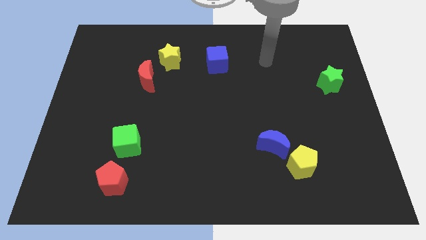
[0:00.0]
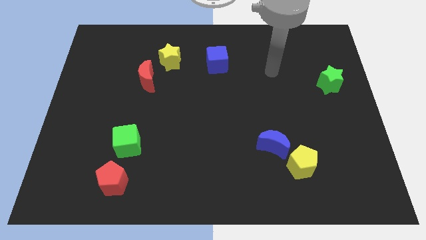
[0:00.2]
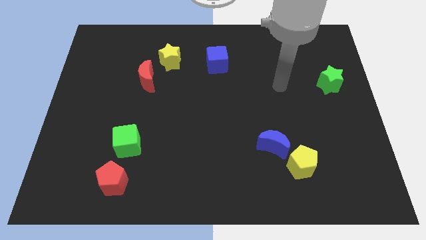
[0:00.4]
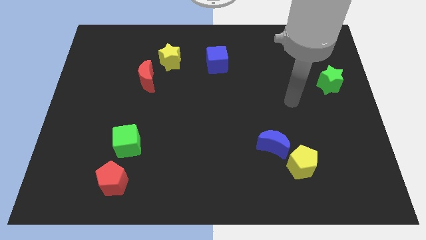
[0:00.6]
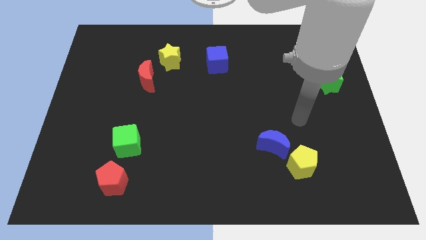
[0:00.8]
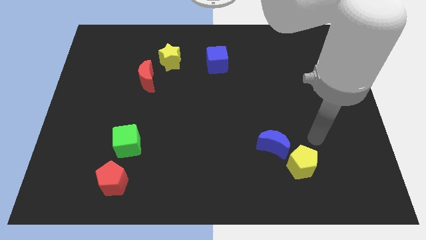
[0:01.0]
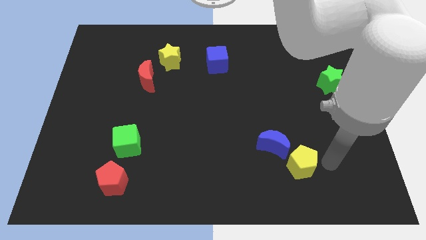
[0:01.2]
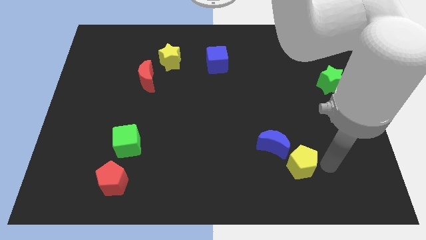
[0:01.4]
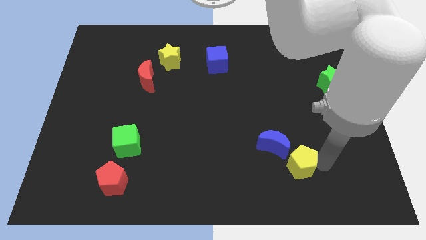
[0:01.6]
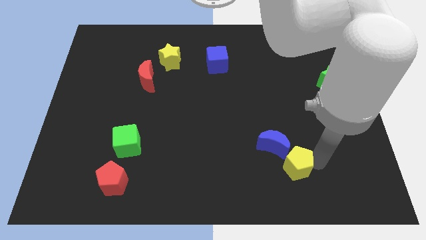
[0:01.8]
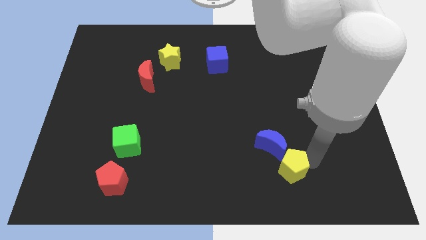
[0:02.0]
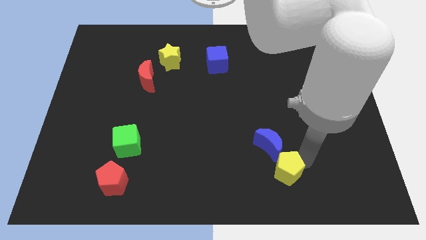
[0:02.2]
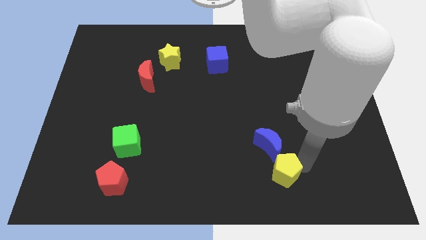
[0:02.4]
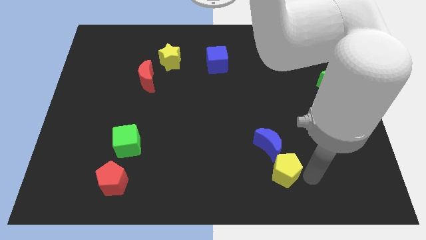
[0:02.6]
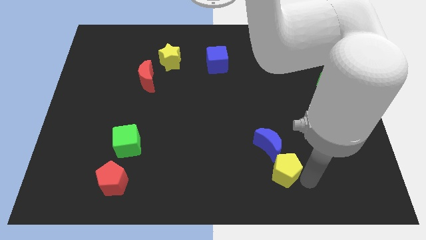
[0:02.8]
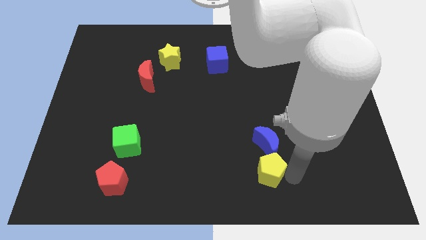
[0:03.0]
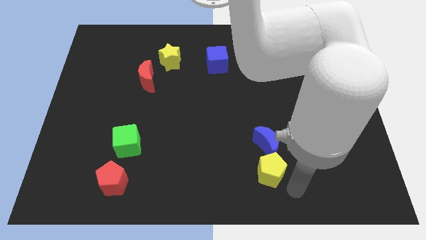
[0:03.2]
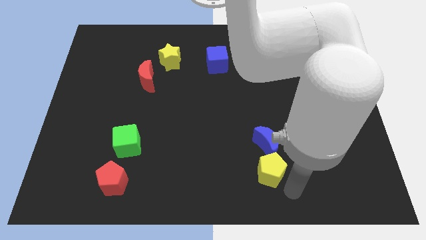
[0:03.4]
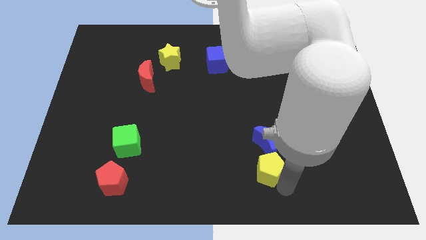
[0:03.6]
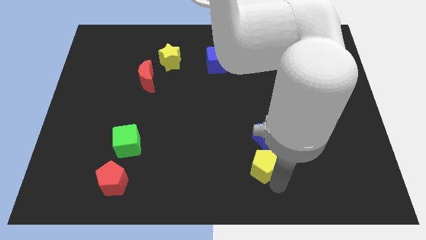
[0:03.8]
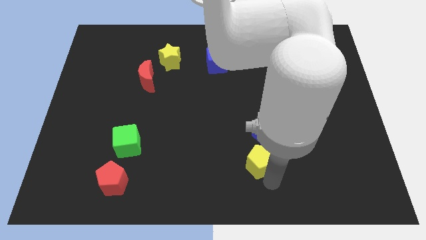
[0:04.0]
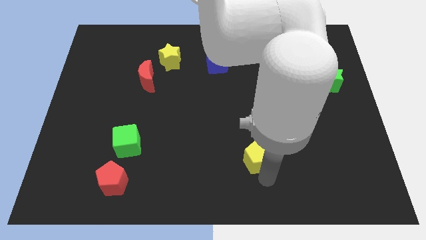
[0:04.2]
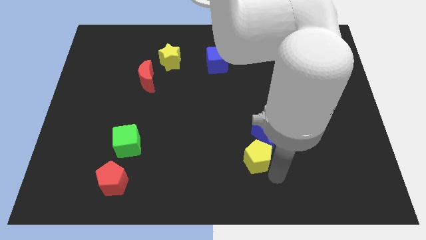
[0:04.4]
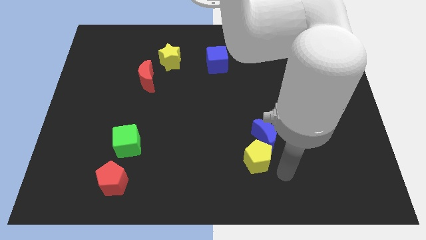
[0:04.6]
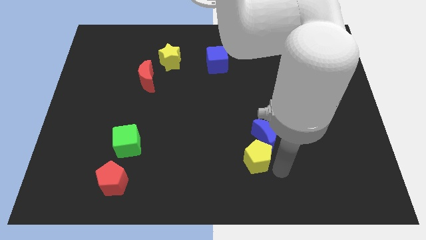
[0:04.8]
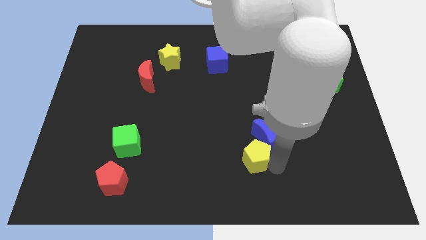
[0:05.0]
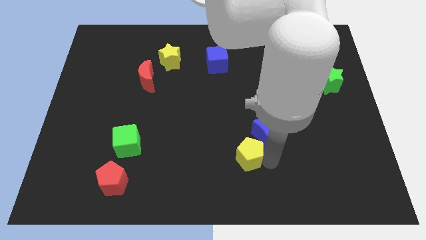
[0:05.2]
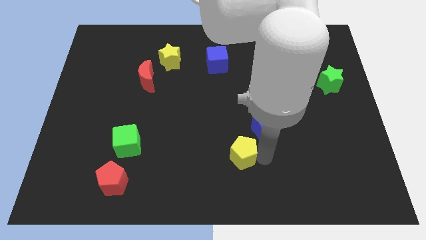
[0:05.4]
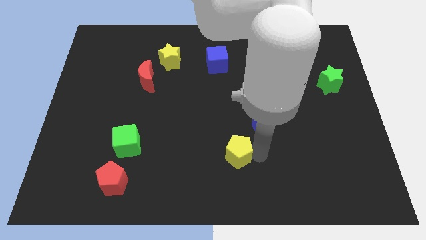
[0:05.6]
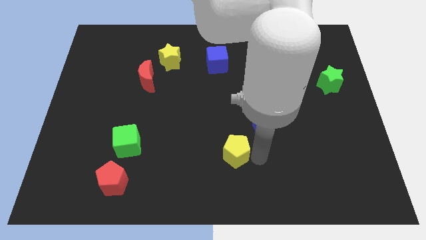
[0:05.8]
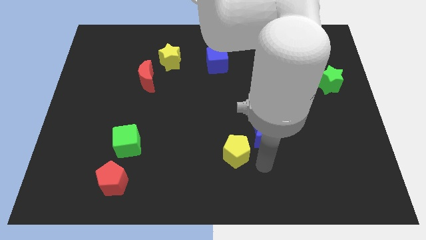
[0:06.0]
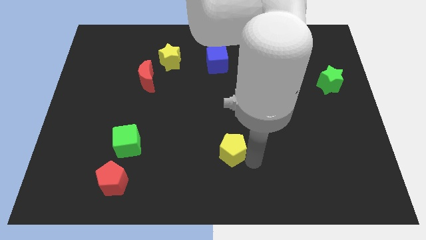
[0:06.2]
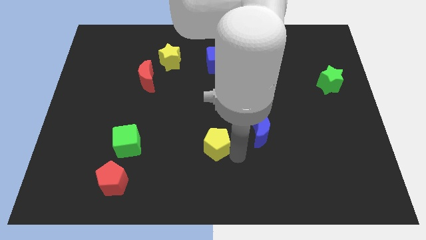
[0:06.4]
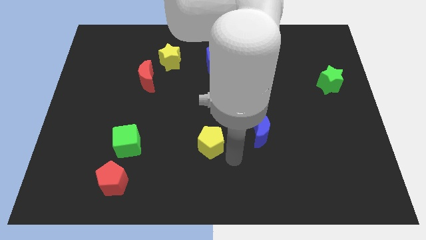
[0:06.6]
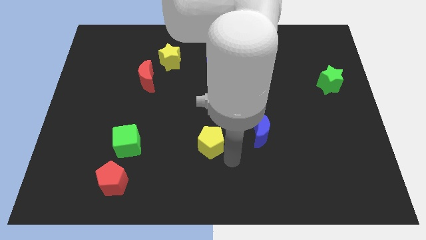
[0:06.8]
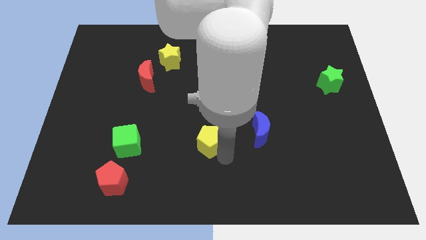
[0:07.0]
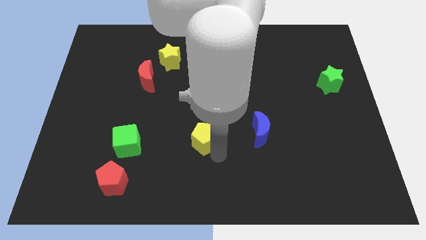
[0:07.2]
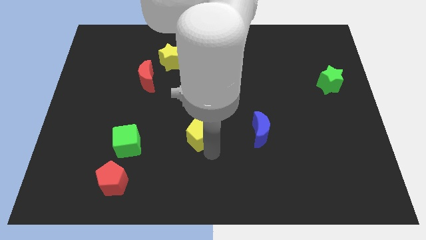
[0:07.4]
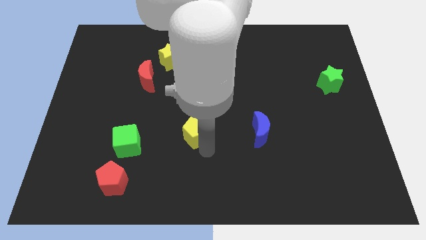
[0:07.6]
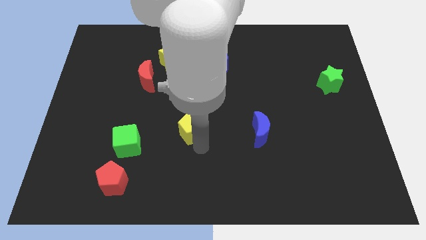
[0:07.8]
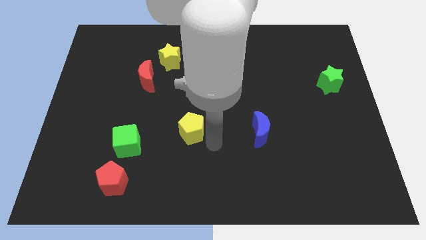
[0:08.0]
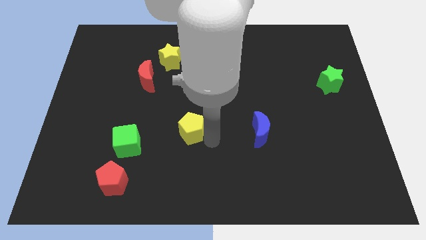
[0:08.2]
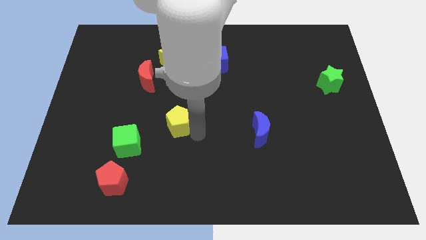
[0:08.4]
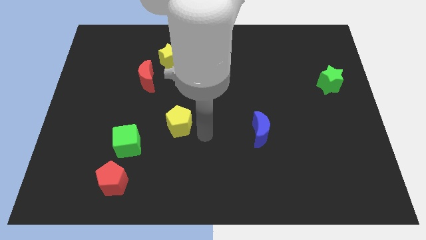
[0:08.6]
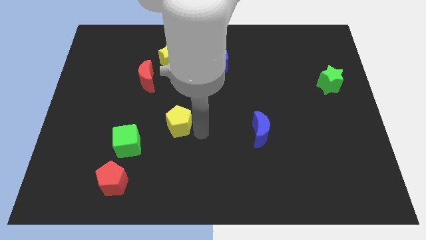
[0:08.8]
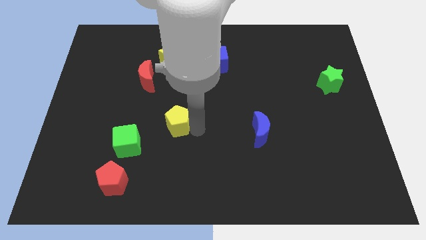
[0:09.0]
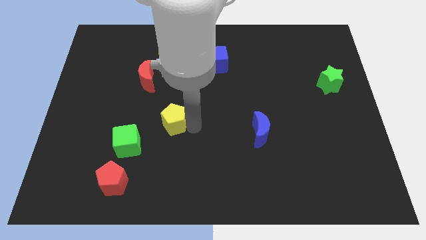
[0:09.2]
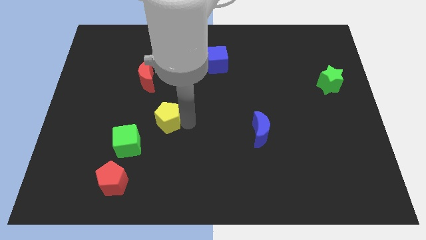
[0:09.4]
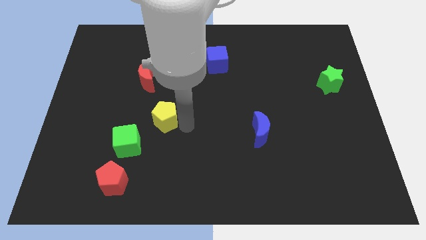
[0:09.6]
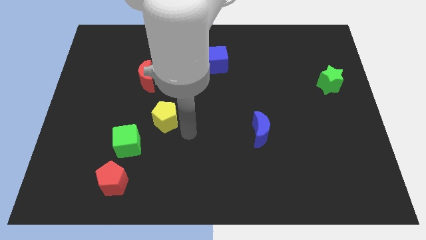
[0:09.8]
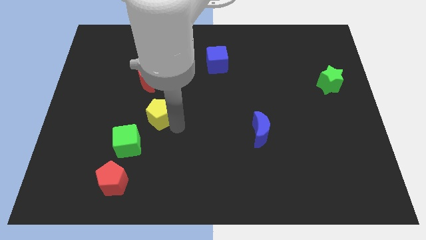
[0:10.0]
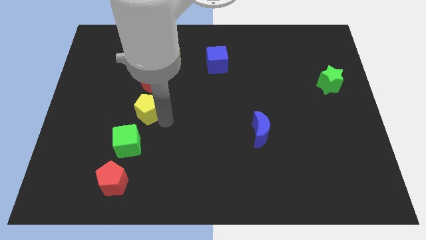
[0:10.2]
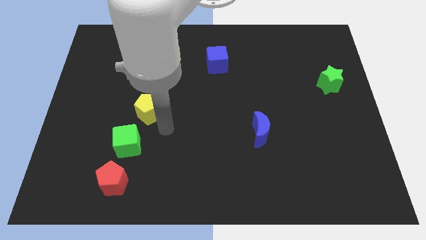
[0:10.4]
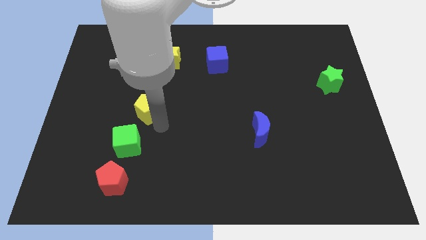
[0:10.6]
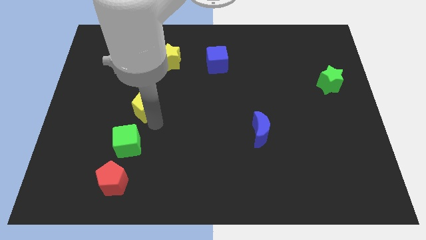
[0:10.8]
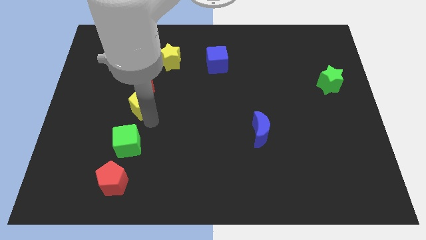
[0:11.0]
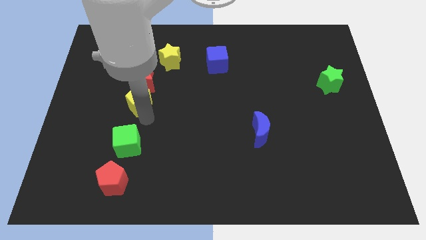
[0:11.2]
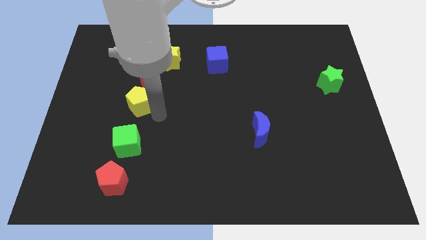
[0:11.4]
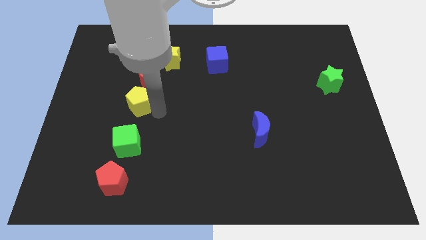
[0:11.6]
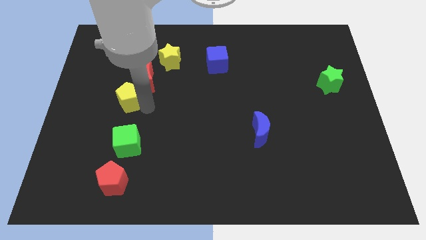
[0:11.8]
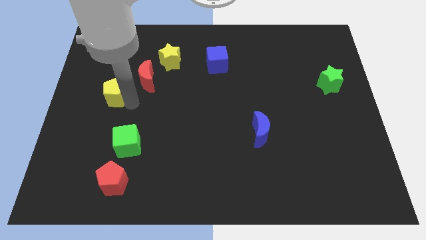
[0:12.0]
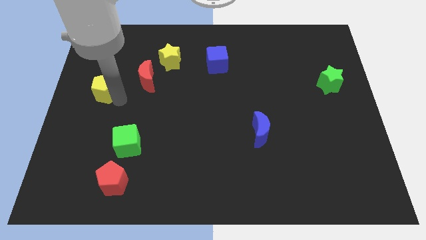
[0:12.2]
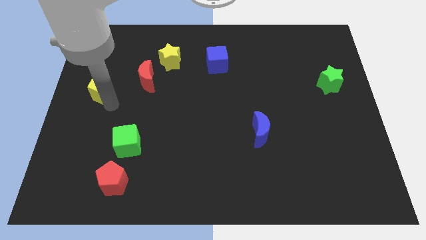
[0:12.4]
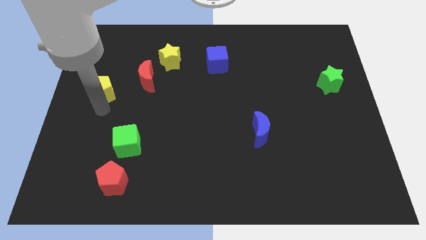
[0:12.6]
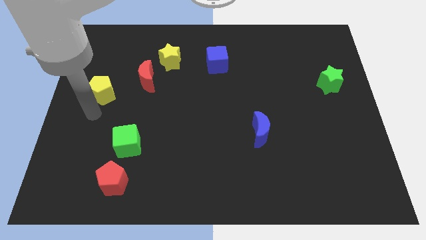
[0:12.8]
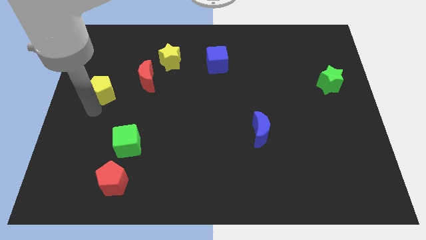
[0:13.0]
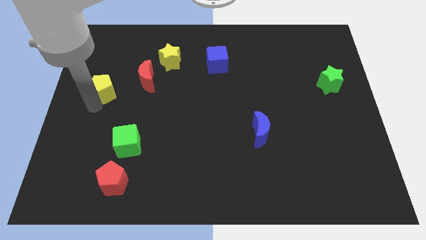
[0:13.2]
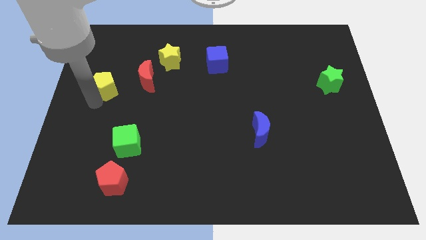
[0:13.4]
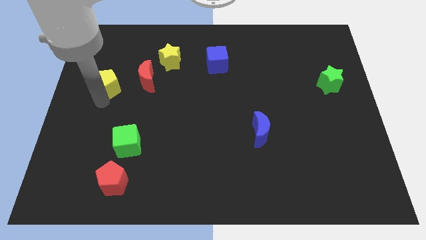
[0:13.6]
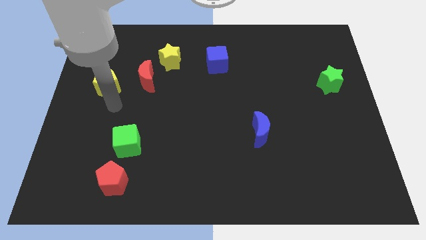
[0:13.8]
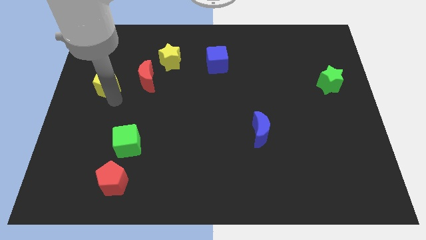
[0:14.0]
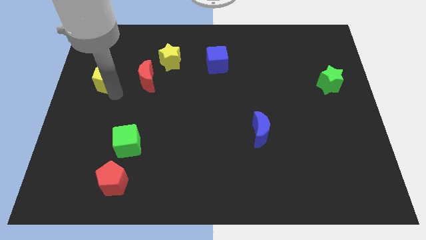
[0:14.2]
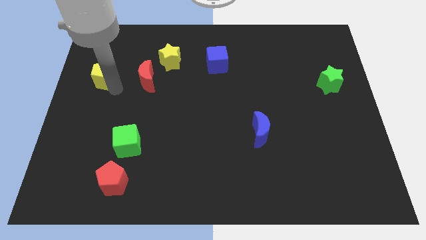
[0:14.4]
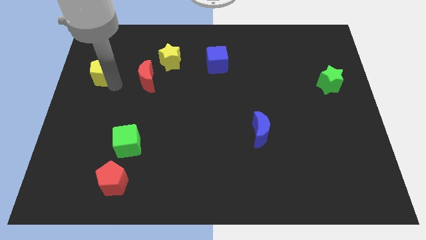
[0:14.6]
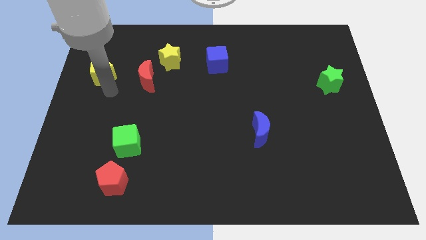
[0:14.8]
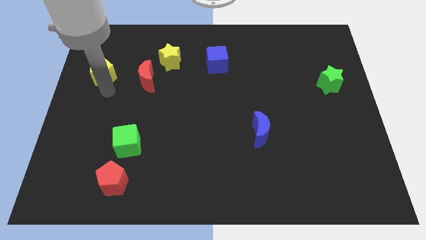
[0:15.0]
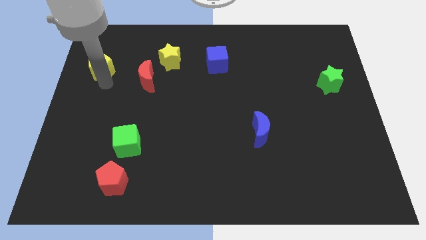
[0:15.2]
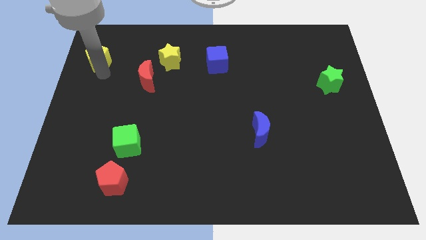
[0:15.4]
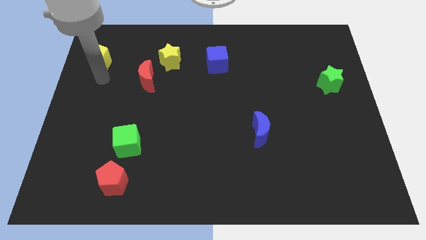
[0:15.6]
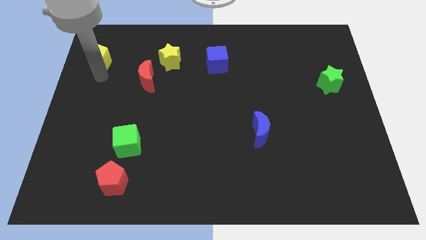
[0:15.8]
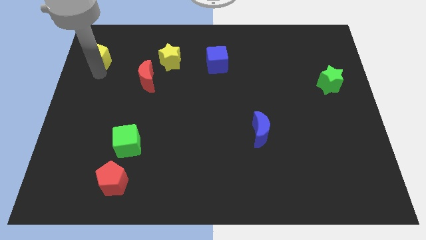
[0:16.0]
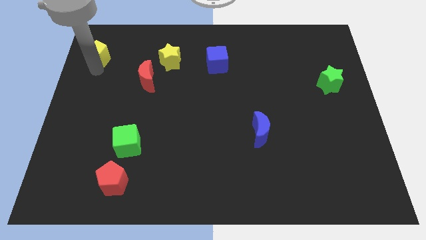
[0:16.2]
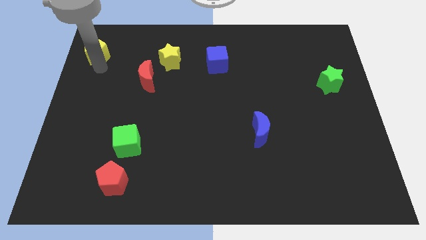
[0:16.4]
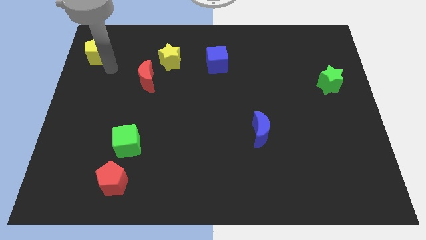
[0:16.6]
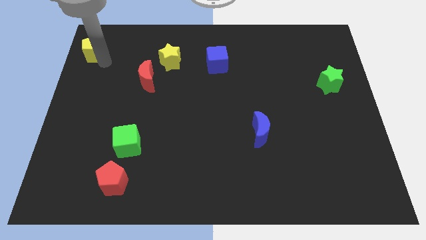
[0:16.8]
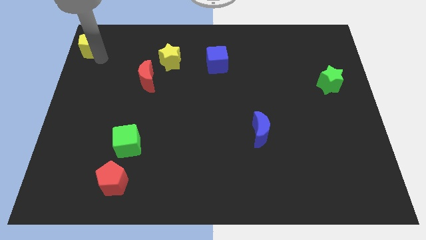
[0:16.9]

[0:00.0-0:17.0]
move the yellow pentagon to the top left corner
